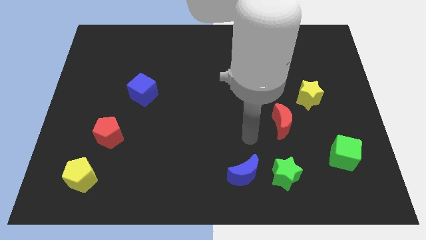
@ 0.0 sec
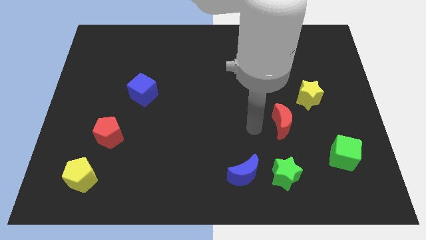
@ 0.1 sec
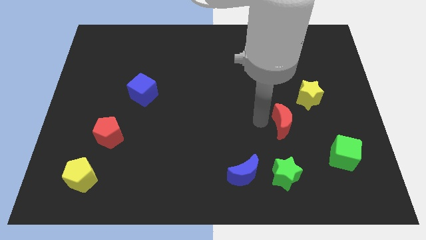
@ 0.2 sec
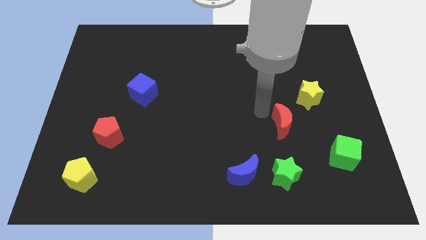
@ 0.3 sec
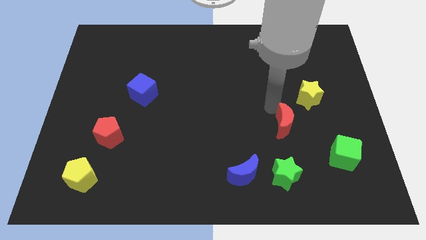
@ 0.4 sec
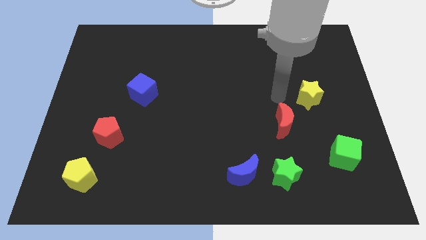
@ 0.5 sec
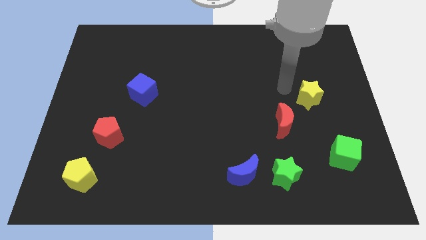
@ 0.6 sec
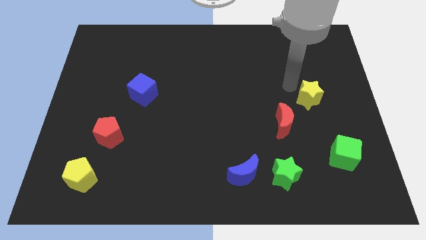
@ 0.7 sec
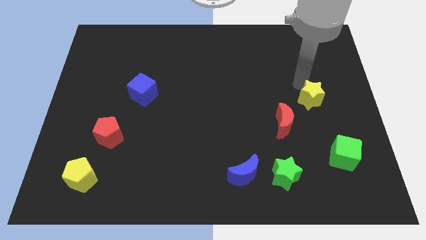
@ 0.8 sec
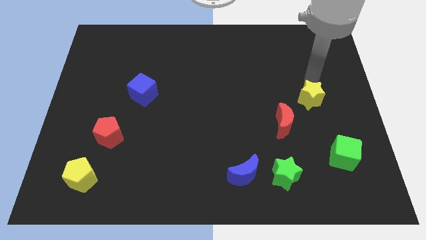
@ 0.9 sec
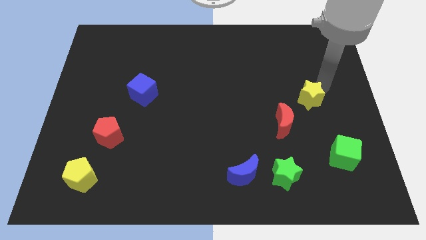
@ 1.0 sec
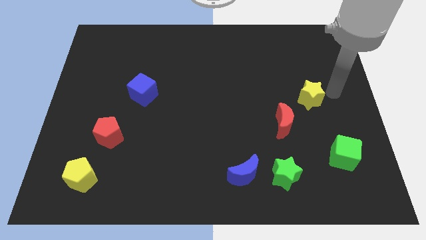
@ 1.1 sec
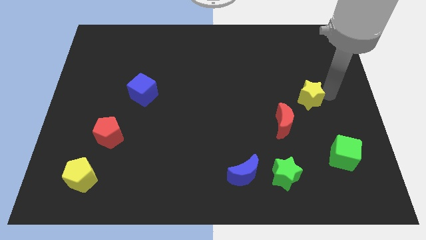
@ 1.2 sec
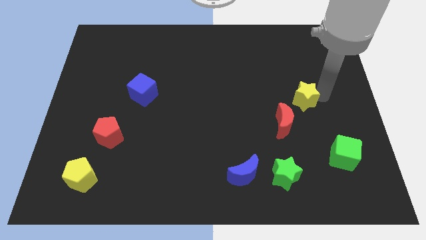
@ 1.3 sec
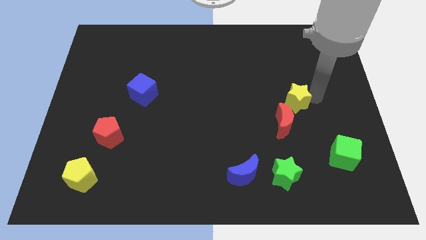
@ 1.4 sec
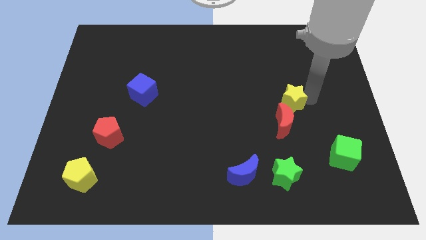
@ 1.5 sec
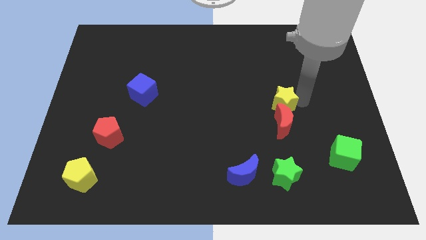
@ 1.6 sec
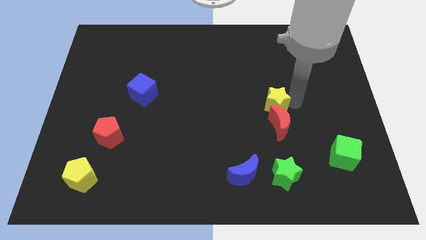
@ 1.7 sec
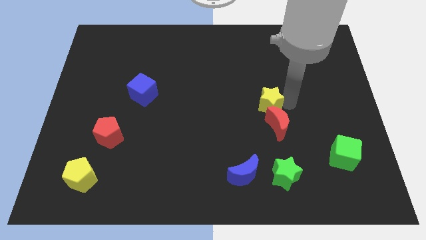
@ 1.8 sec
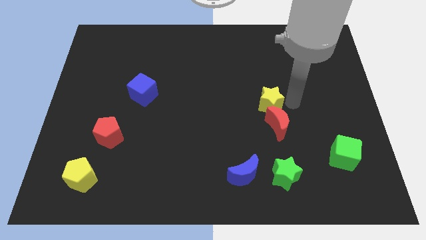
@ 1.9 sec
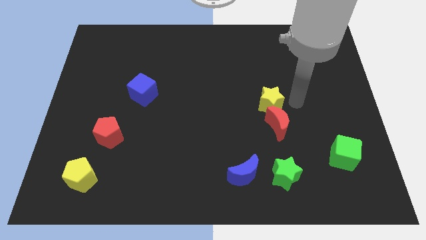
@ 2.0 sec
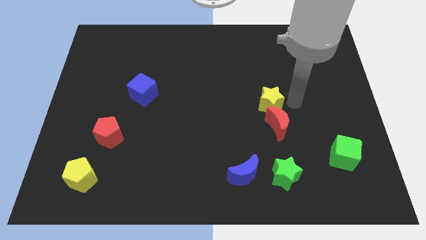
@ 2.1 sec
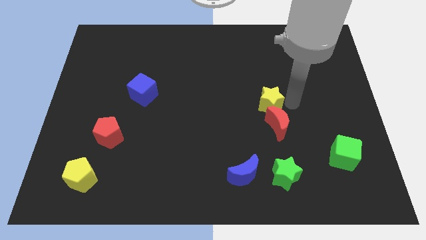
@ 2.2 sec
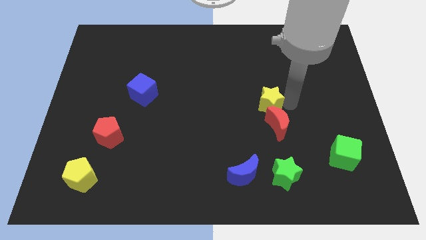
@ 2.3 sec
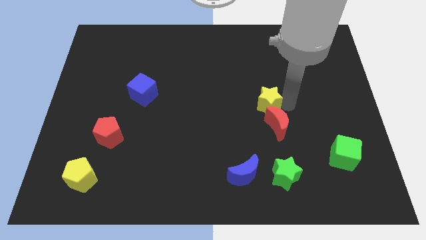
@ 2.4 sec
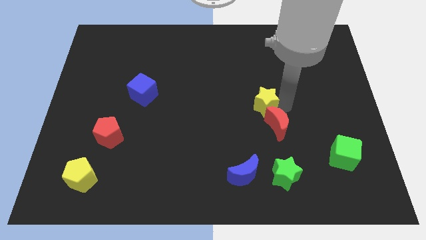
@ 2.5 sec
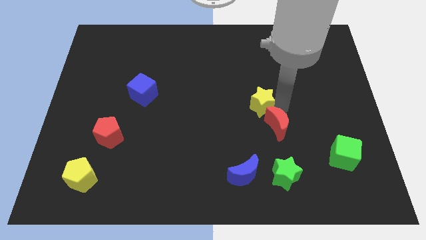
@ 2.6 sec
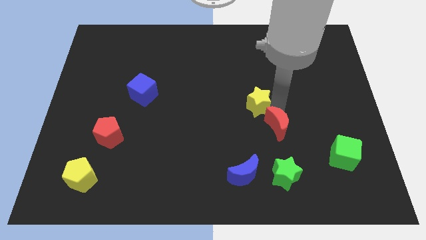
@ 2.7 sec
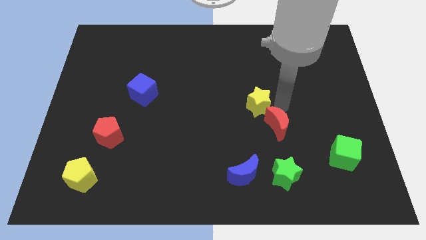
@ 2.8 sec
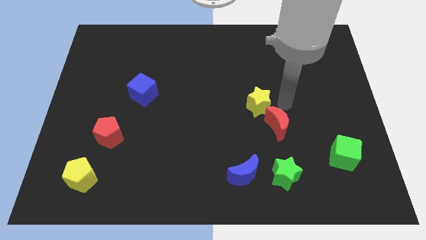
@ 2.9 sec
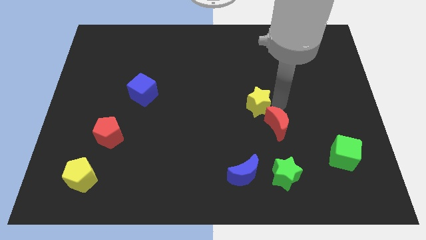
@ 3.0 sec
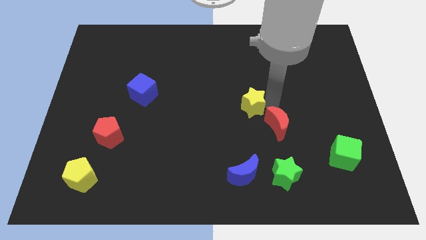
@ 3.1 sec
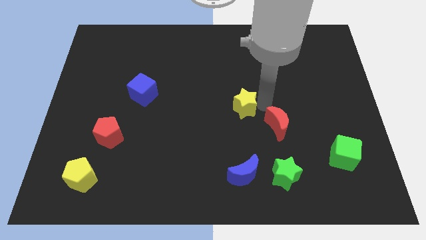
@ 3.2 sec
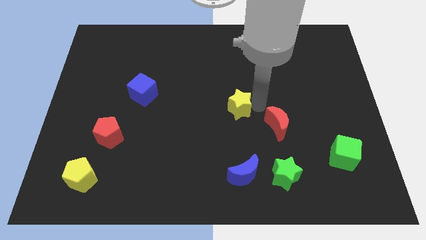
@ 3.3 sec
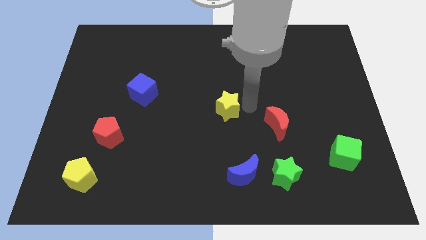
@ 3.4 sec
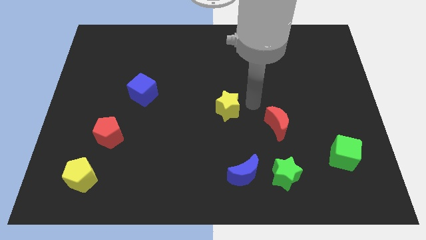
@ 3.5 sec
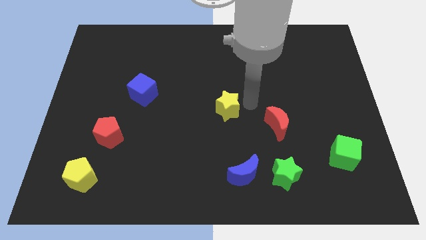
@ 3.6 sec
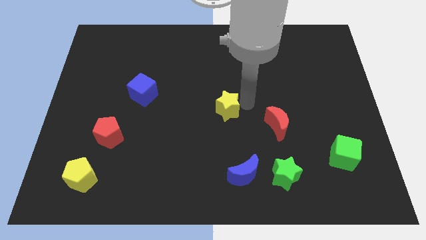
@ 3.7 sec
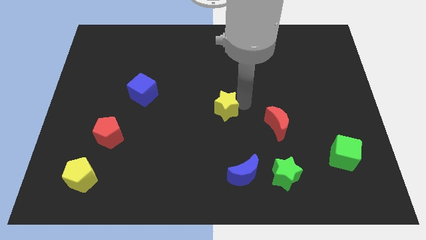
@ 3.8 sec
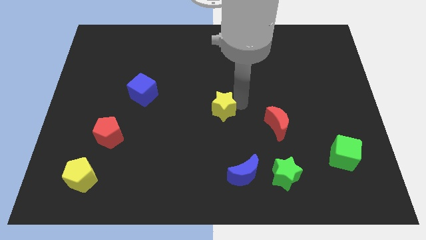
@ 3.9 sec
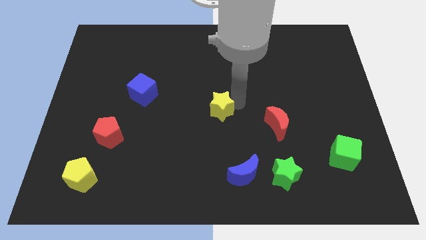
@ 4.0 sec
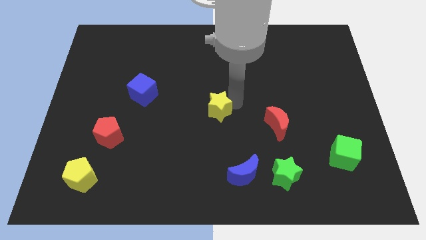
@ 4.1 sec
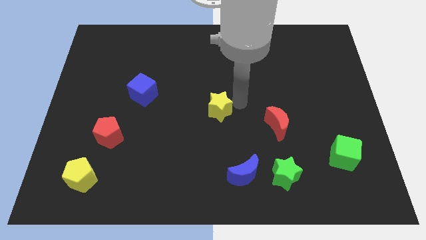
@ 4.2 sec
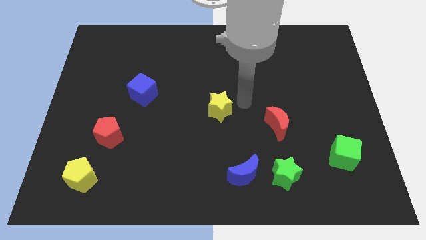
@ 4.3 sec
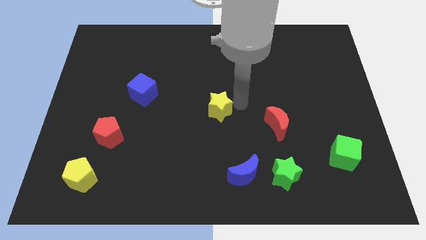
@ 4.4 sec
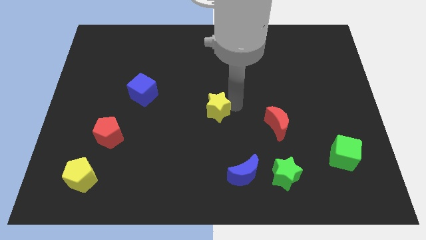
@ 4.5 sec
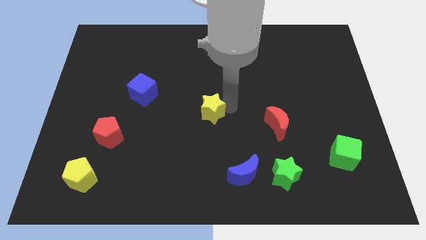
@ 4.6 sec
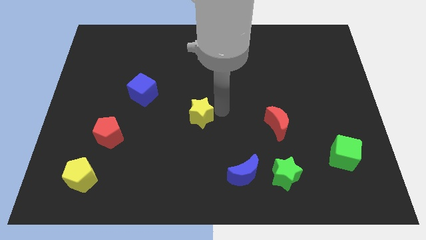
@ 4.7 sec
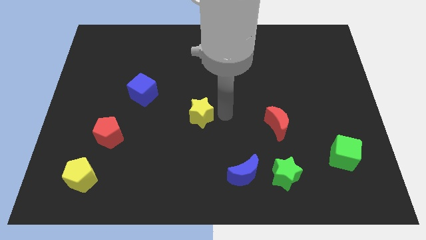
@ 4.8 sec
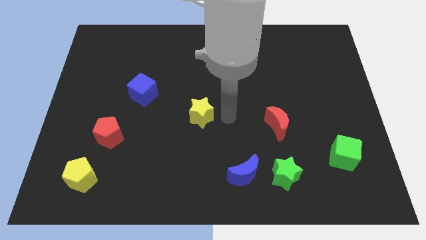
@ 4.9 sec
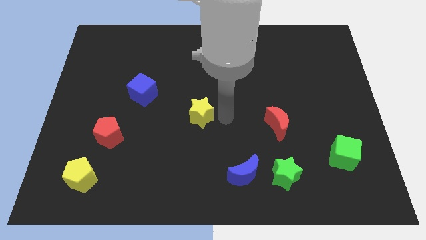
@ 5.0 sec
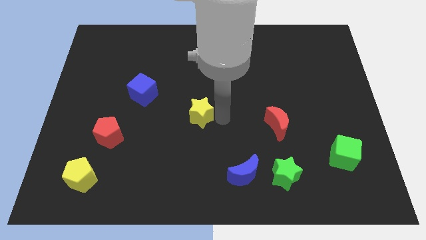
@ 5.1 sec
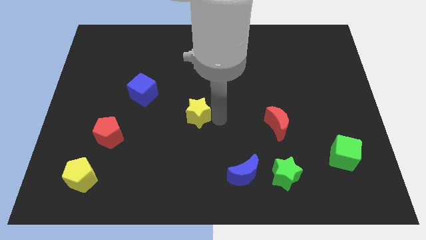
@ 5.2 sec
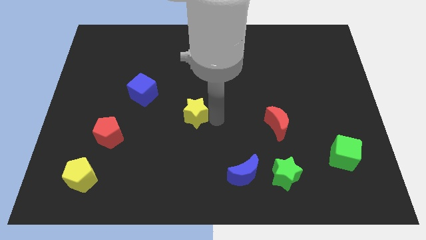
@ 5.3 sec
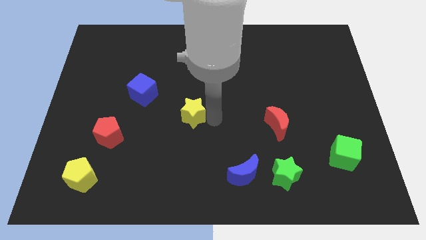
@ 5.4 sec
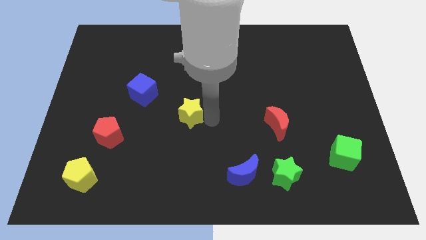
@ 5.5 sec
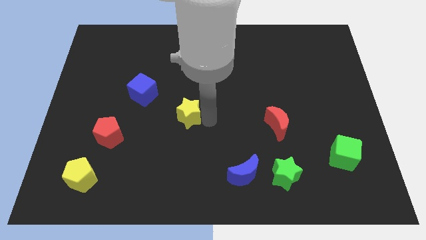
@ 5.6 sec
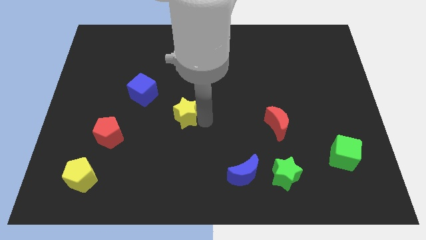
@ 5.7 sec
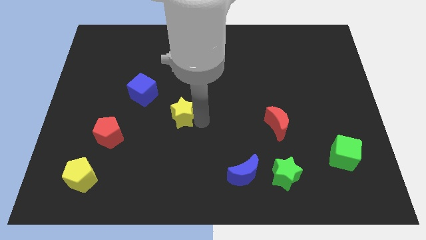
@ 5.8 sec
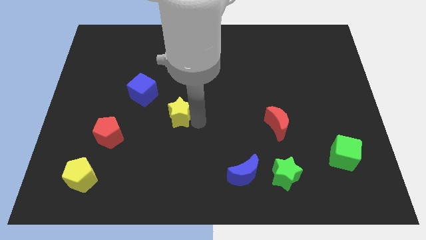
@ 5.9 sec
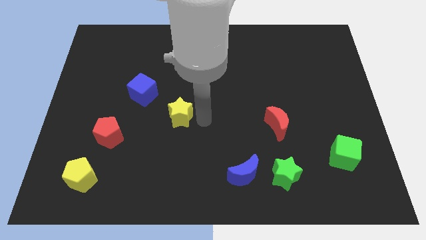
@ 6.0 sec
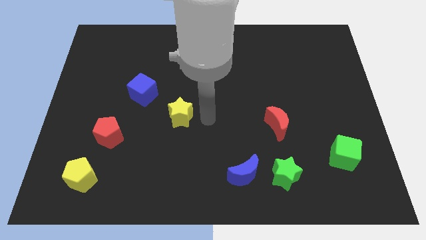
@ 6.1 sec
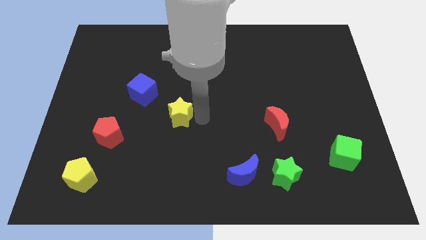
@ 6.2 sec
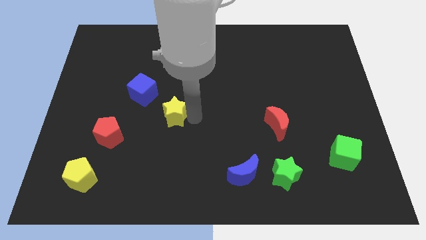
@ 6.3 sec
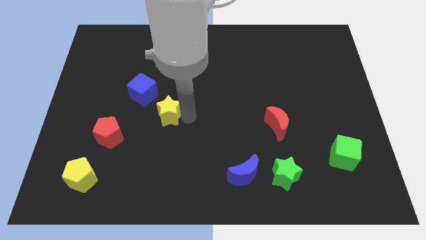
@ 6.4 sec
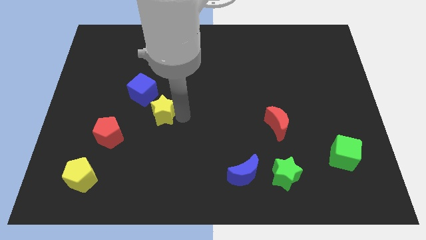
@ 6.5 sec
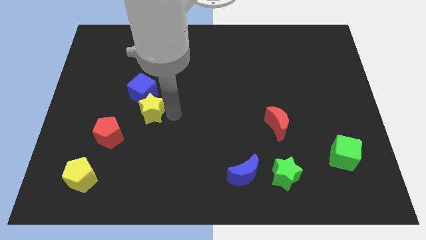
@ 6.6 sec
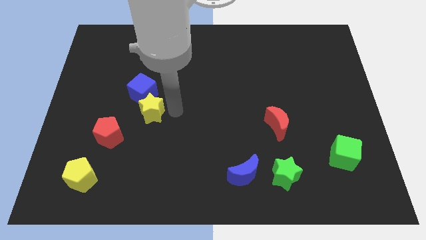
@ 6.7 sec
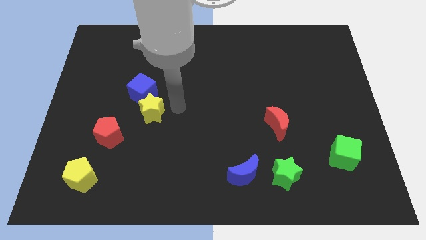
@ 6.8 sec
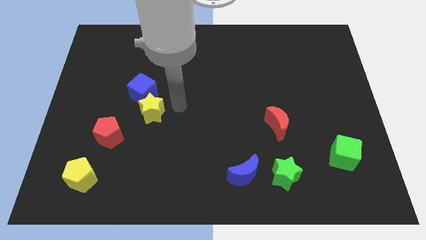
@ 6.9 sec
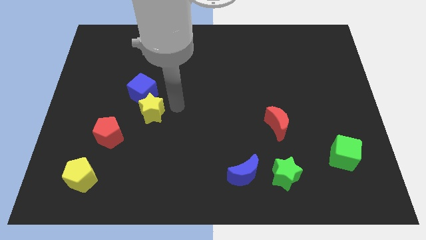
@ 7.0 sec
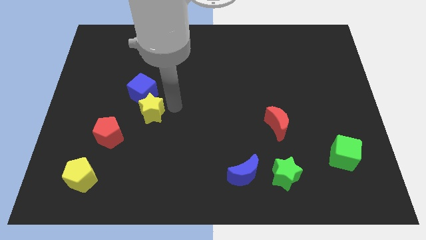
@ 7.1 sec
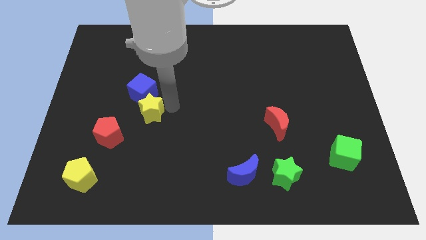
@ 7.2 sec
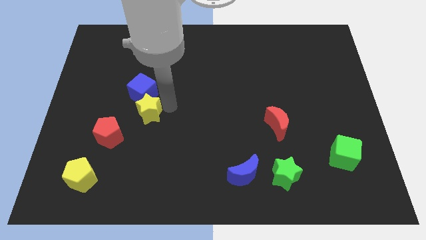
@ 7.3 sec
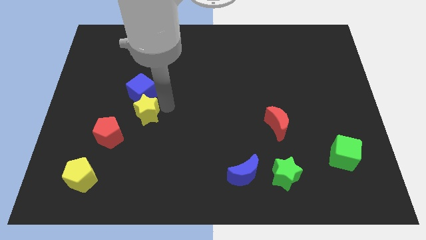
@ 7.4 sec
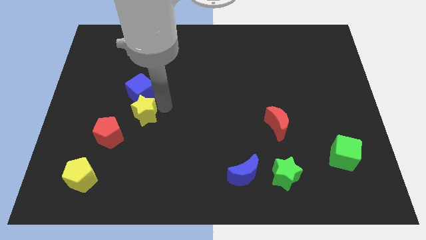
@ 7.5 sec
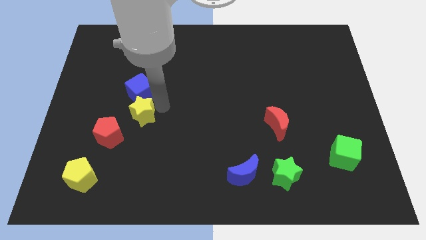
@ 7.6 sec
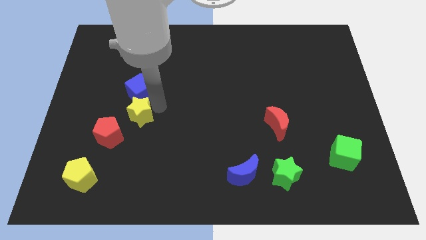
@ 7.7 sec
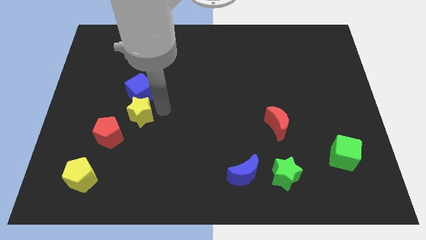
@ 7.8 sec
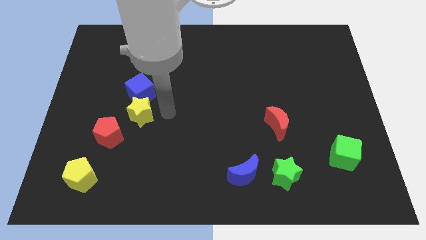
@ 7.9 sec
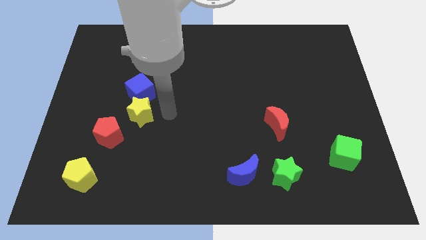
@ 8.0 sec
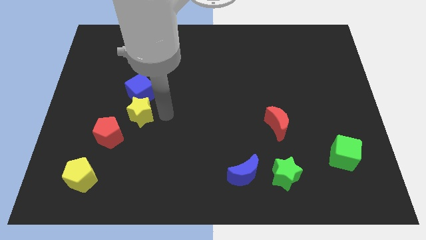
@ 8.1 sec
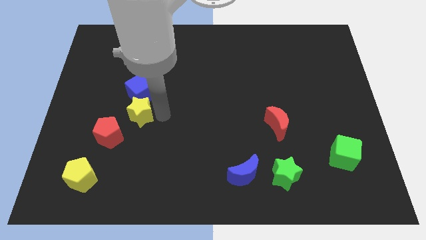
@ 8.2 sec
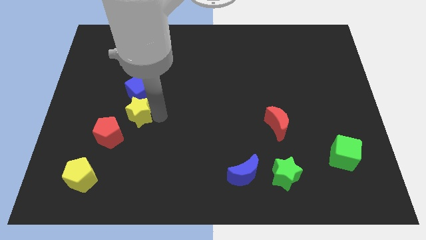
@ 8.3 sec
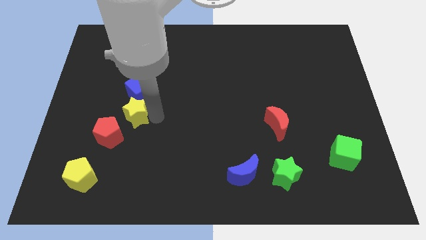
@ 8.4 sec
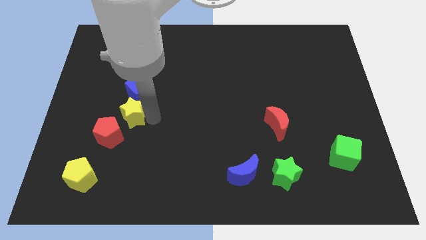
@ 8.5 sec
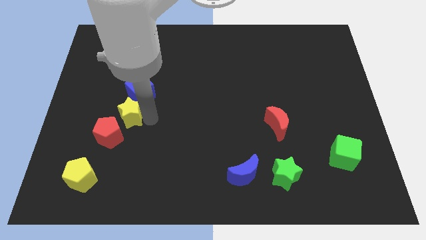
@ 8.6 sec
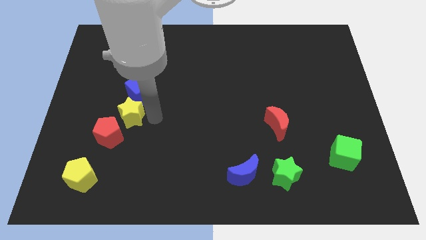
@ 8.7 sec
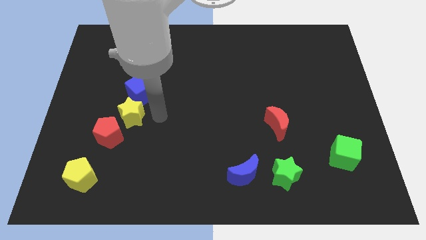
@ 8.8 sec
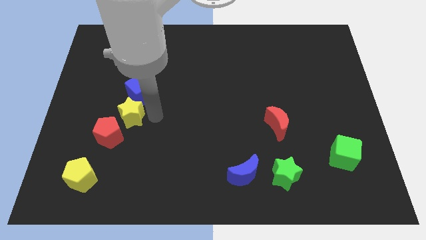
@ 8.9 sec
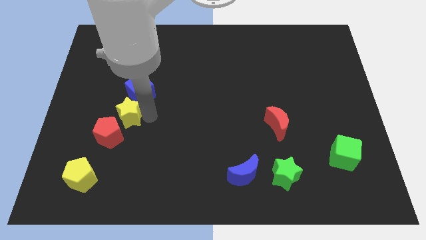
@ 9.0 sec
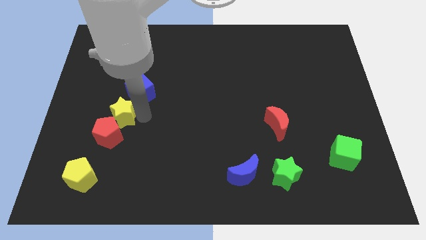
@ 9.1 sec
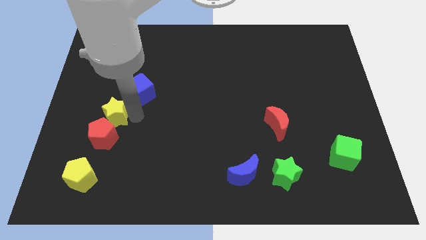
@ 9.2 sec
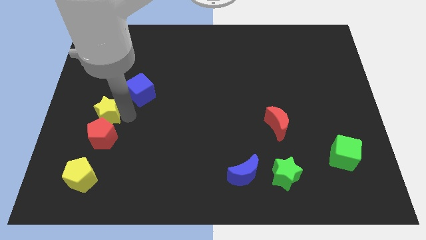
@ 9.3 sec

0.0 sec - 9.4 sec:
put the yellow star diagonally up and to the left of the red pentagon
